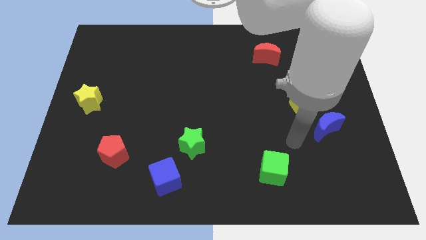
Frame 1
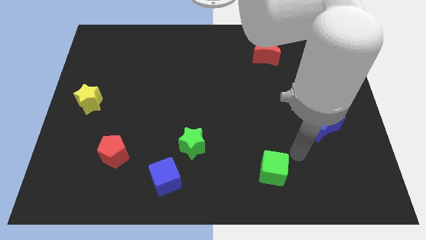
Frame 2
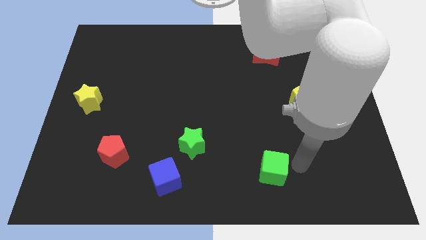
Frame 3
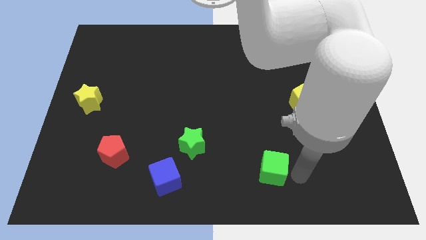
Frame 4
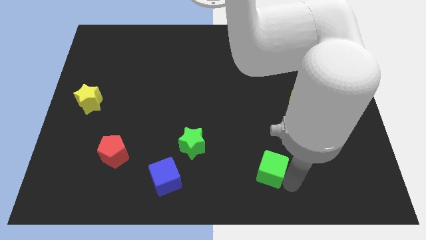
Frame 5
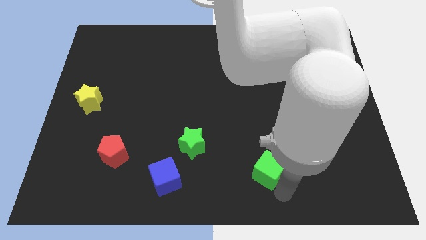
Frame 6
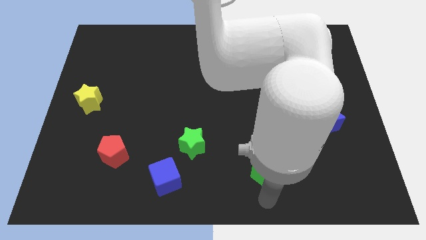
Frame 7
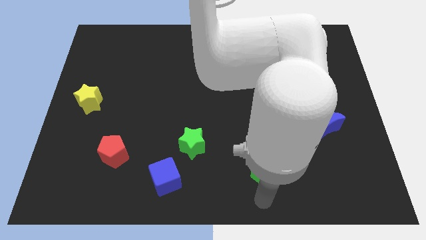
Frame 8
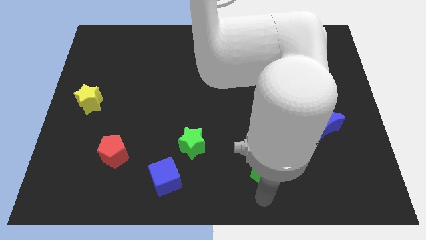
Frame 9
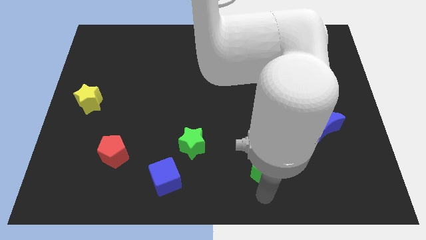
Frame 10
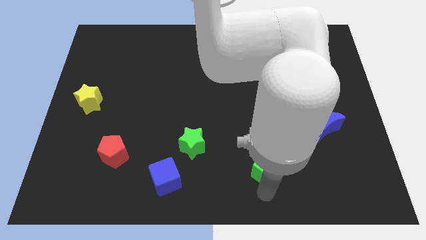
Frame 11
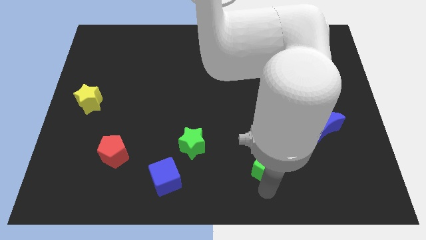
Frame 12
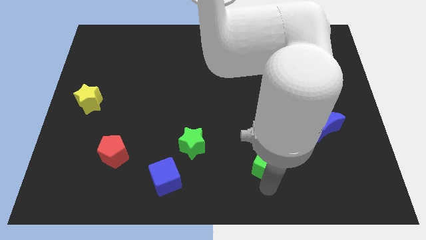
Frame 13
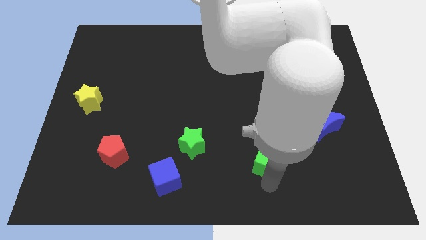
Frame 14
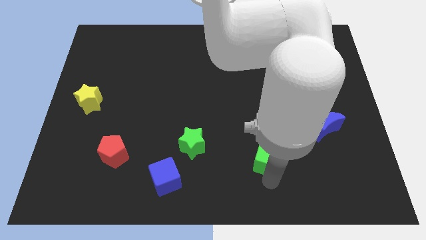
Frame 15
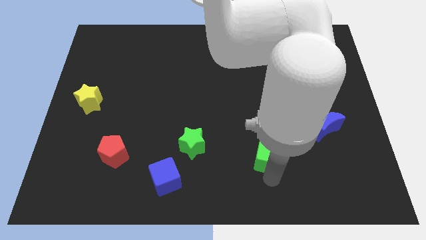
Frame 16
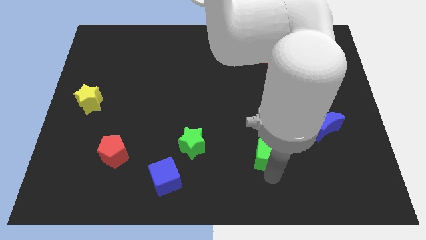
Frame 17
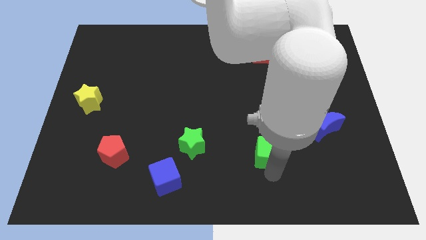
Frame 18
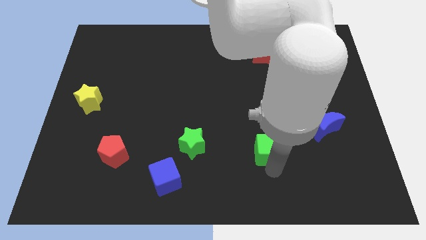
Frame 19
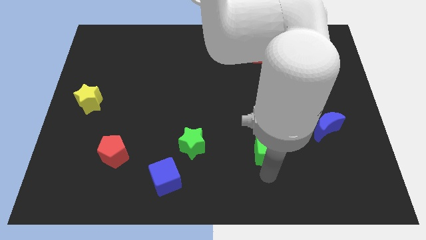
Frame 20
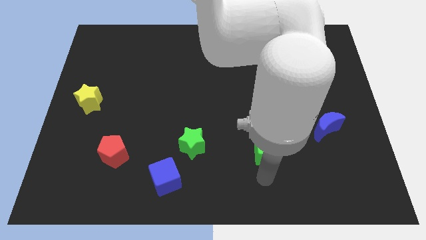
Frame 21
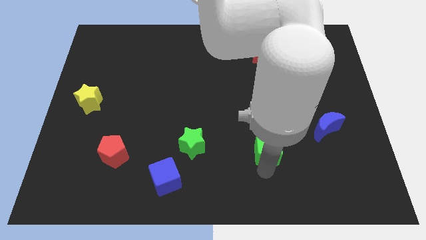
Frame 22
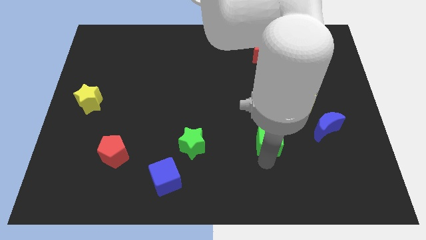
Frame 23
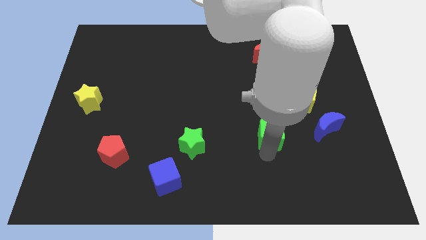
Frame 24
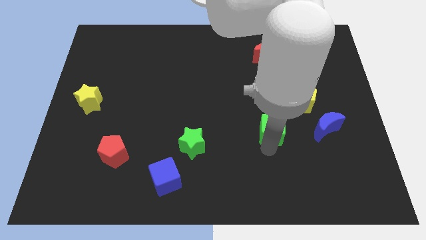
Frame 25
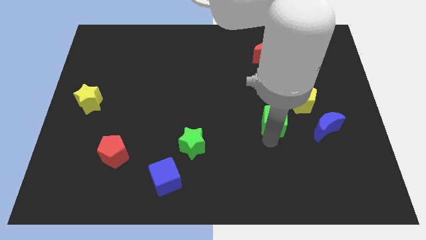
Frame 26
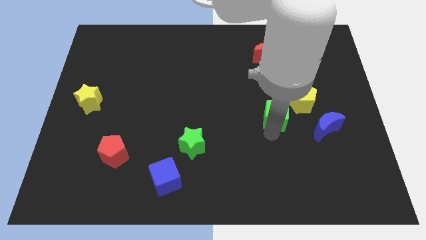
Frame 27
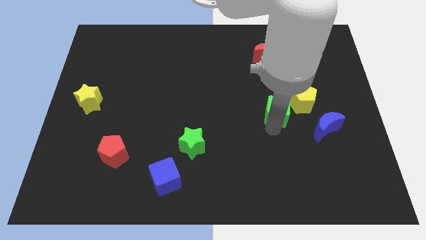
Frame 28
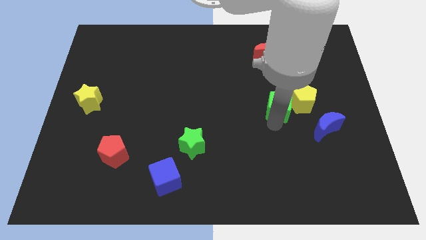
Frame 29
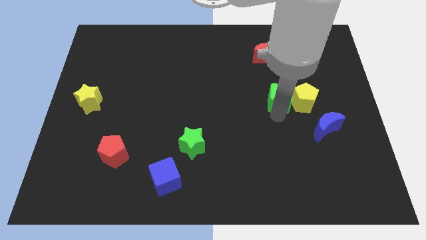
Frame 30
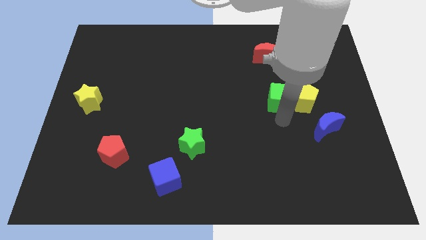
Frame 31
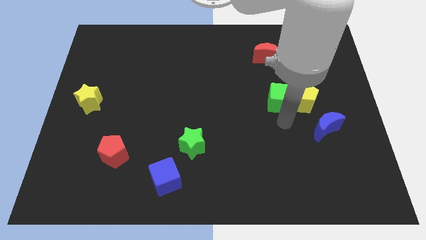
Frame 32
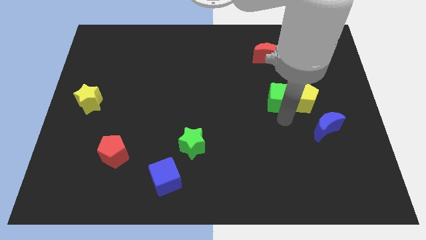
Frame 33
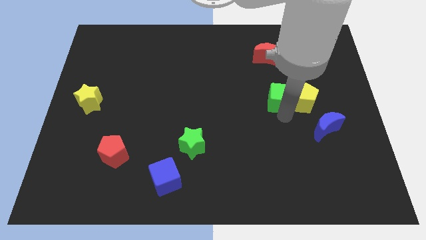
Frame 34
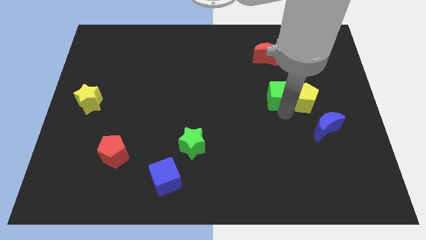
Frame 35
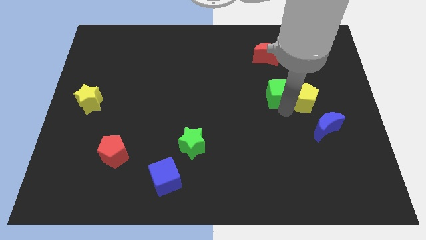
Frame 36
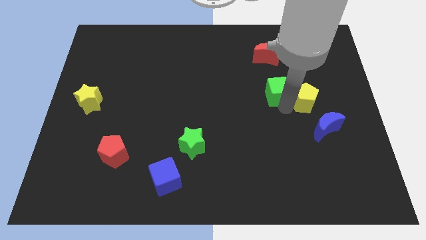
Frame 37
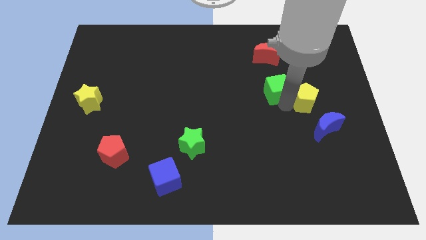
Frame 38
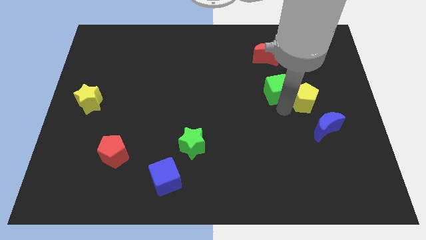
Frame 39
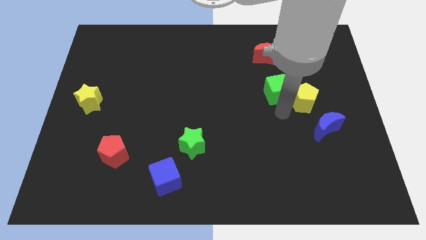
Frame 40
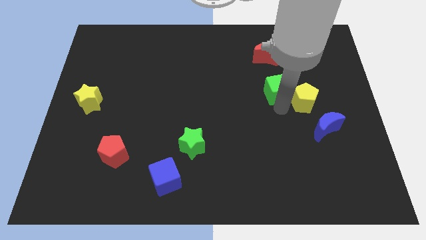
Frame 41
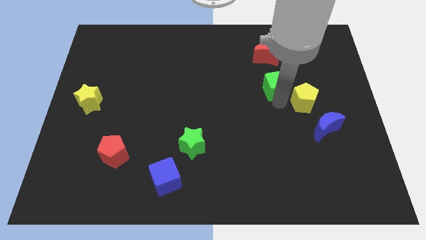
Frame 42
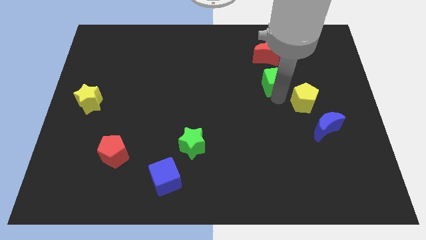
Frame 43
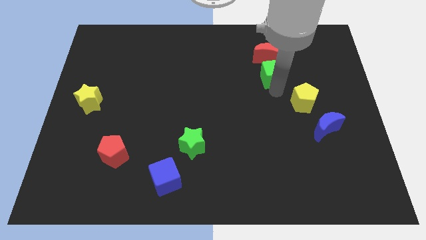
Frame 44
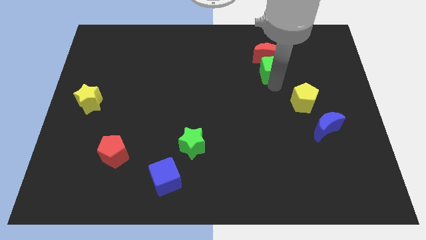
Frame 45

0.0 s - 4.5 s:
push the green cube next to the red moon

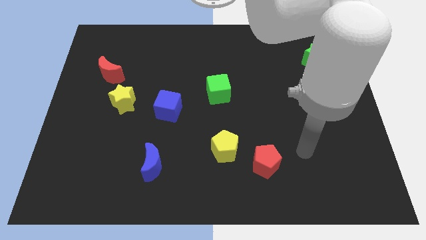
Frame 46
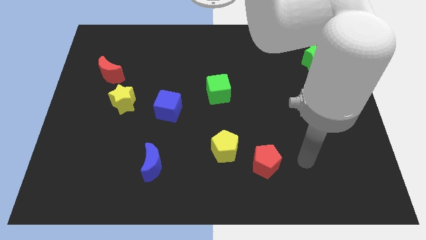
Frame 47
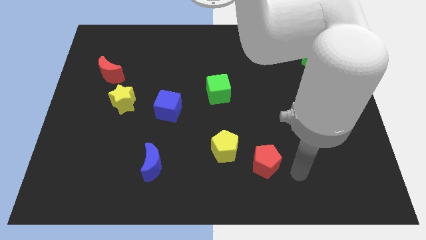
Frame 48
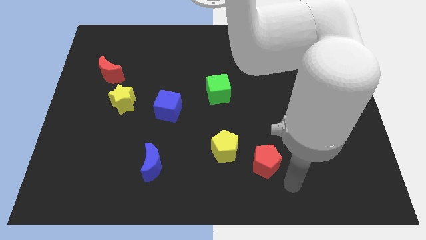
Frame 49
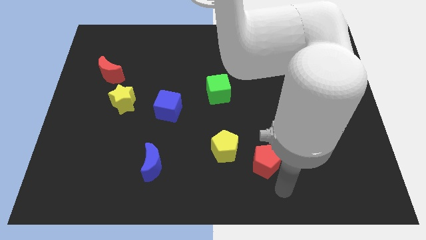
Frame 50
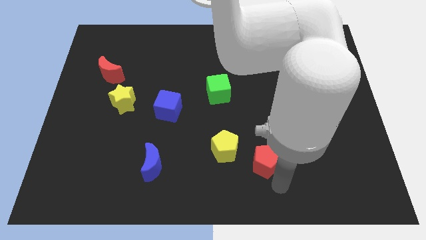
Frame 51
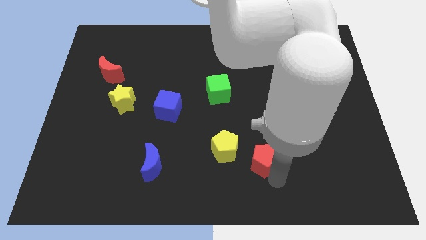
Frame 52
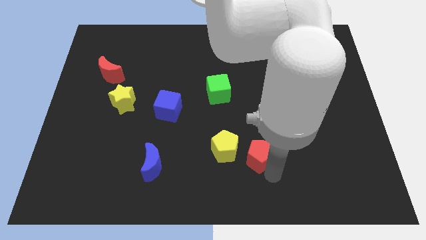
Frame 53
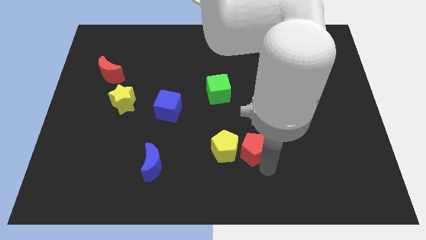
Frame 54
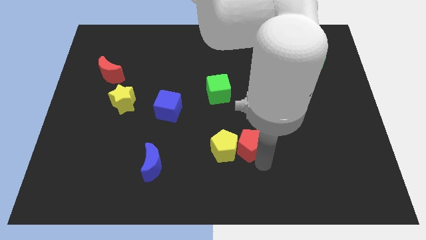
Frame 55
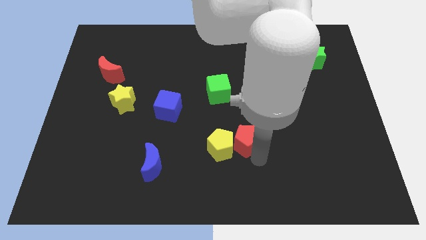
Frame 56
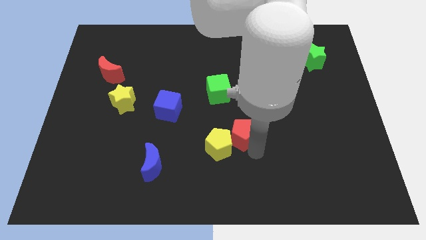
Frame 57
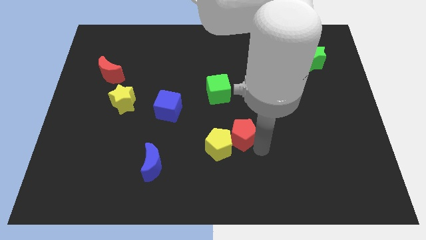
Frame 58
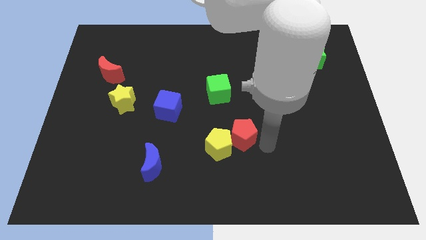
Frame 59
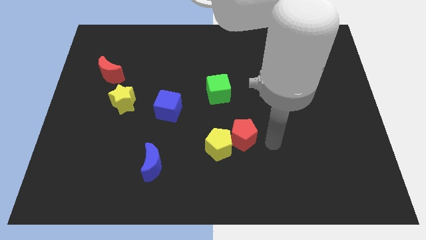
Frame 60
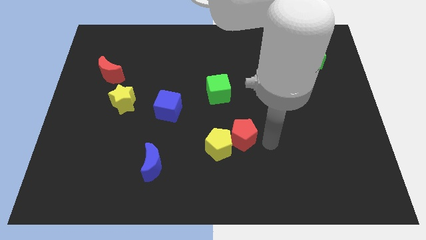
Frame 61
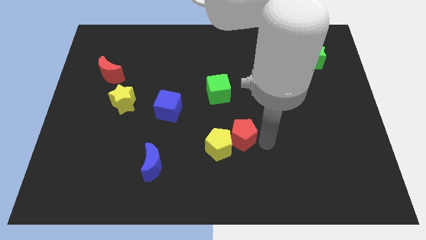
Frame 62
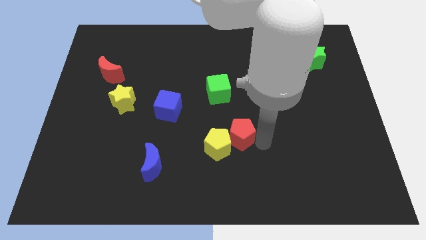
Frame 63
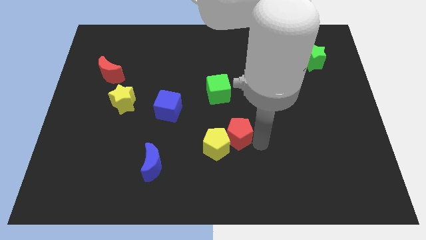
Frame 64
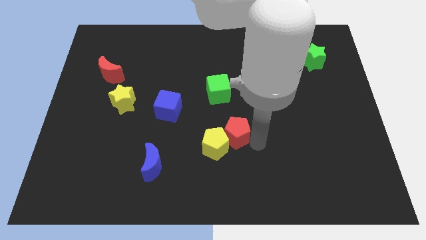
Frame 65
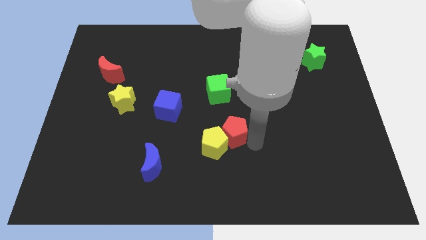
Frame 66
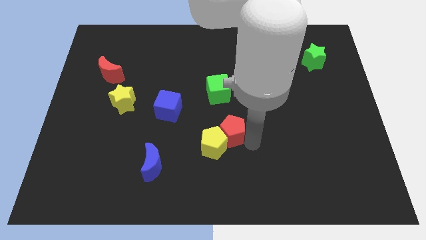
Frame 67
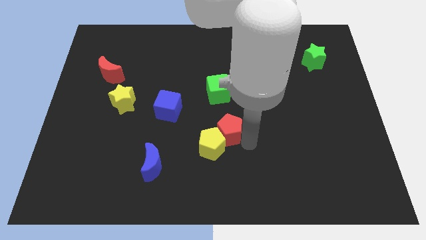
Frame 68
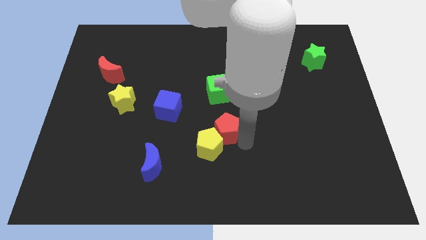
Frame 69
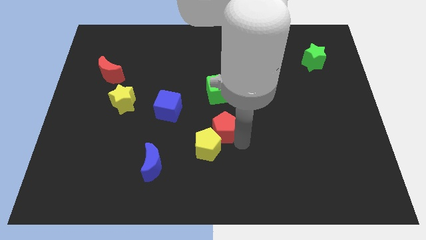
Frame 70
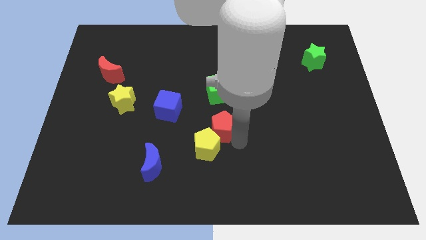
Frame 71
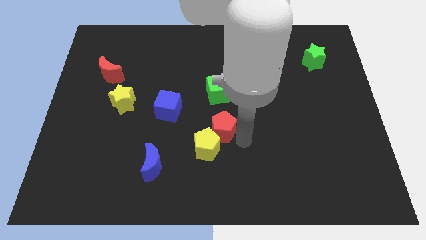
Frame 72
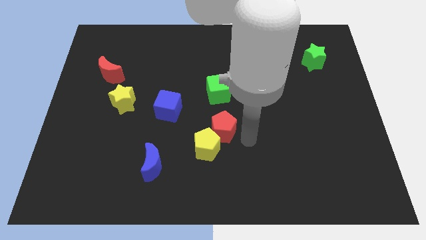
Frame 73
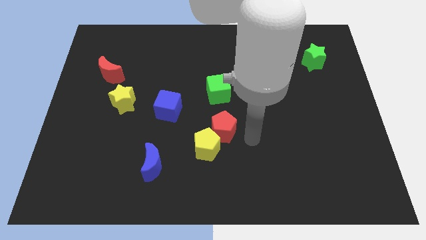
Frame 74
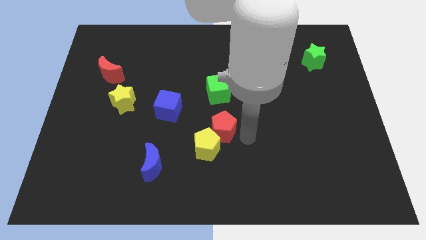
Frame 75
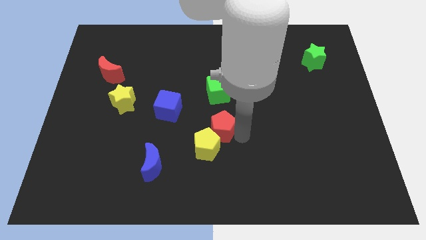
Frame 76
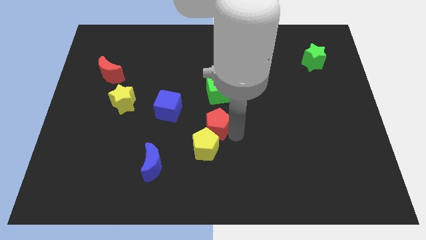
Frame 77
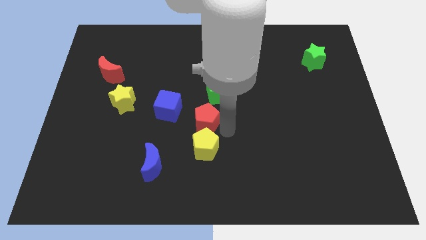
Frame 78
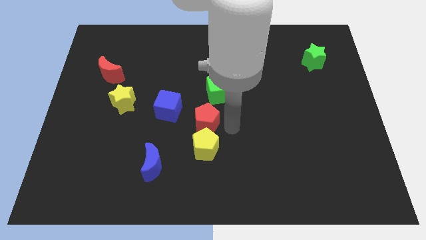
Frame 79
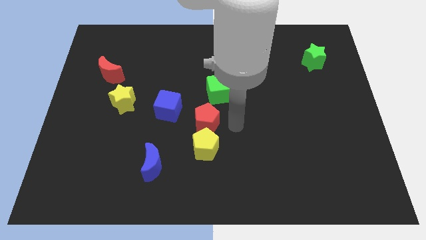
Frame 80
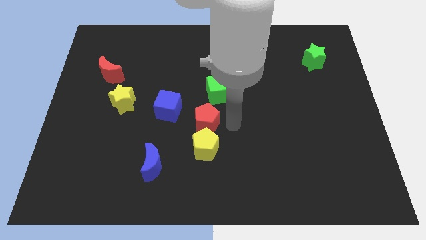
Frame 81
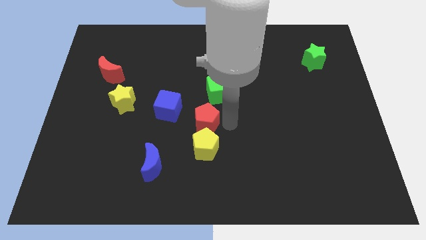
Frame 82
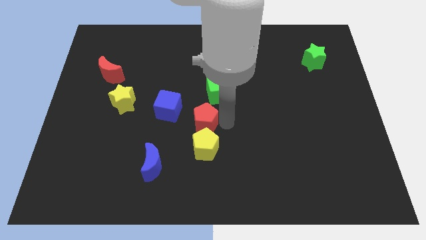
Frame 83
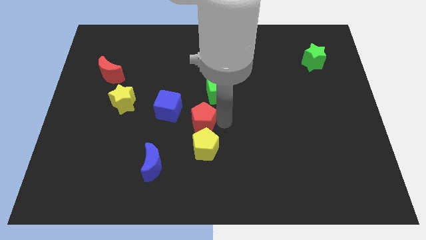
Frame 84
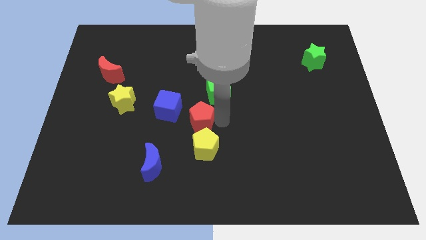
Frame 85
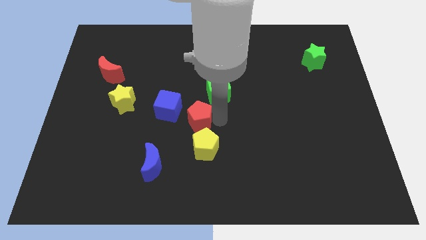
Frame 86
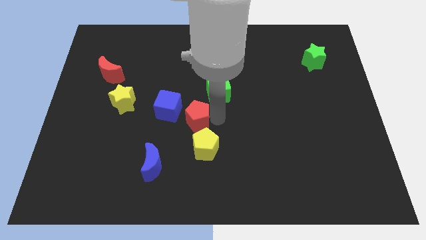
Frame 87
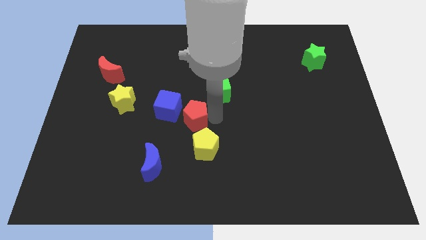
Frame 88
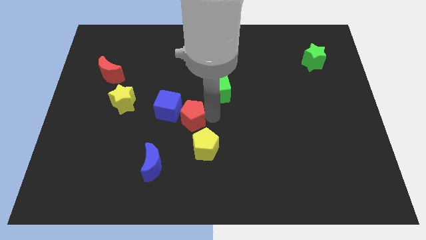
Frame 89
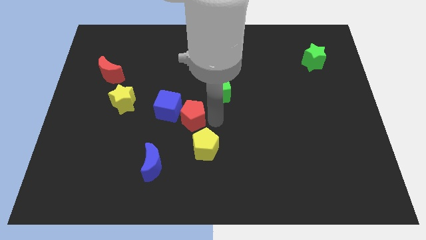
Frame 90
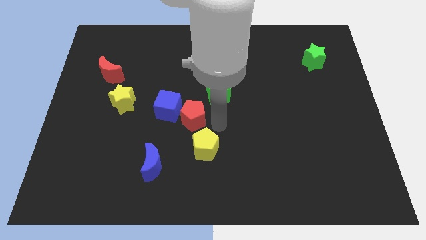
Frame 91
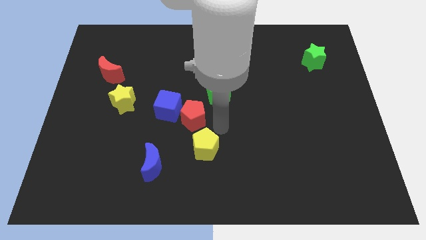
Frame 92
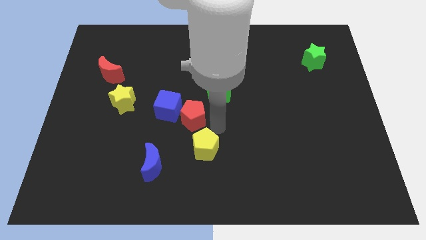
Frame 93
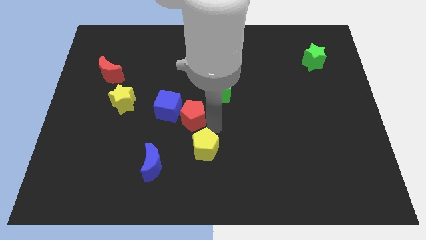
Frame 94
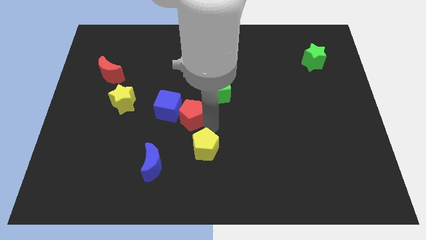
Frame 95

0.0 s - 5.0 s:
put the red pentagon to the blue cube
